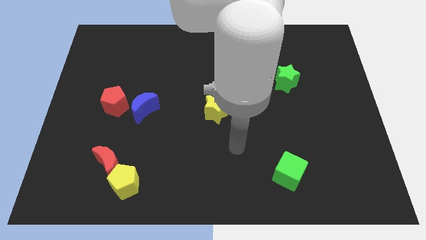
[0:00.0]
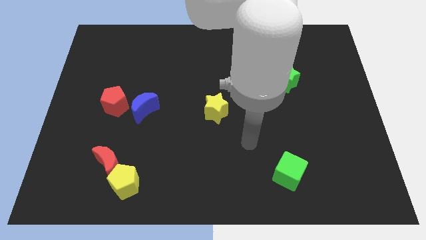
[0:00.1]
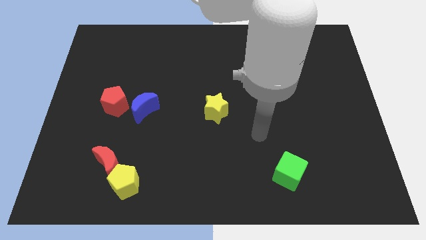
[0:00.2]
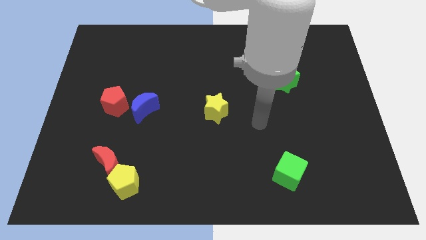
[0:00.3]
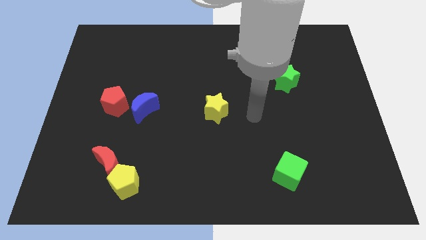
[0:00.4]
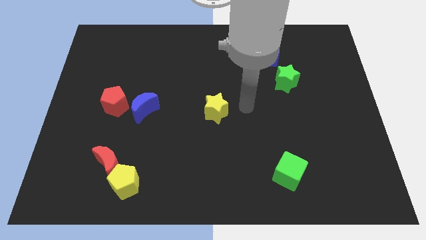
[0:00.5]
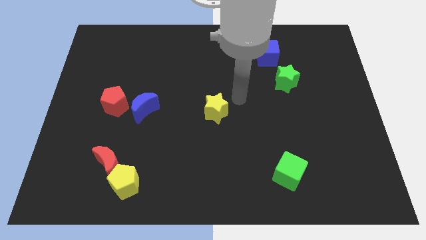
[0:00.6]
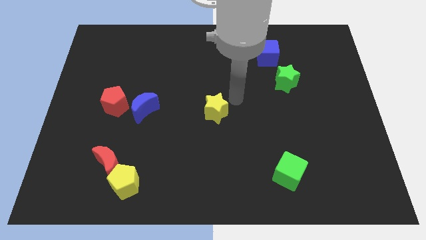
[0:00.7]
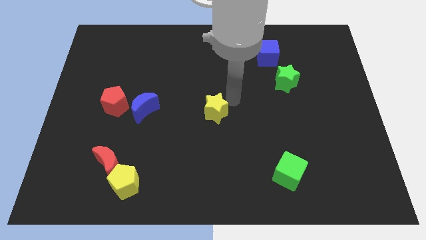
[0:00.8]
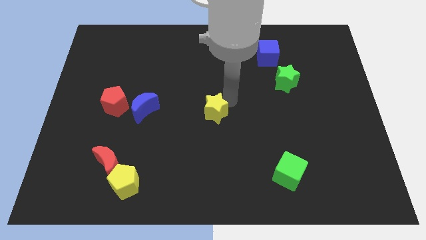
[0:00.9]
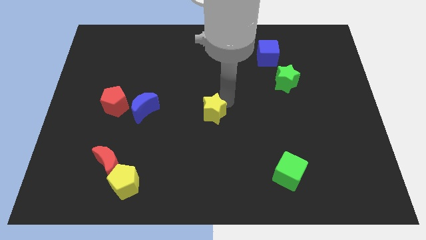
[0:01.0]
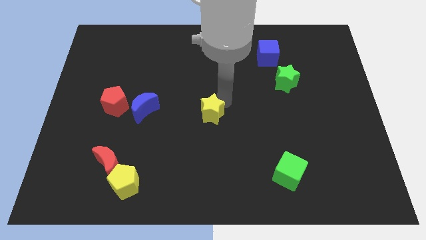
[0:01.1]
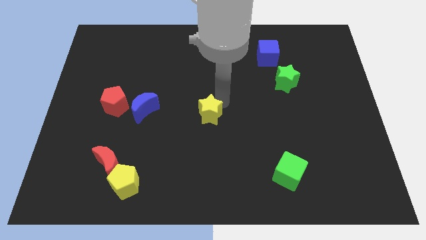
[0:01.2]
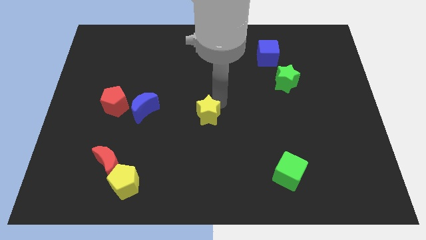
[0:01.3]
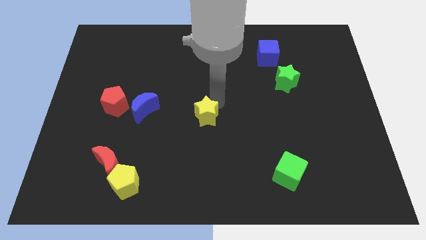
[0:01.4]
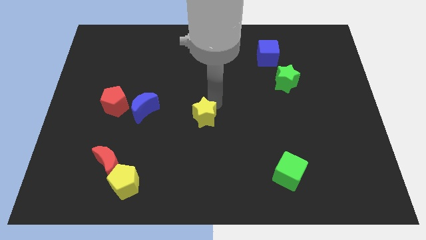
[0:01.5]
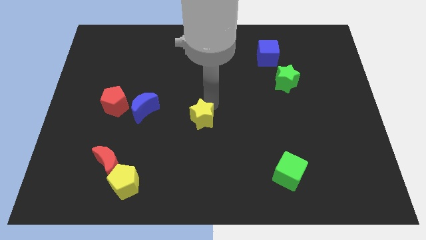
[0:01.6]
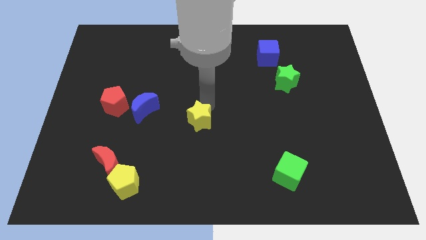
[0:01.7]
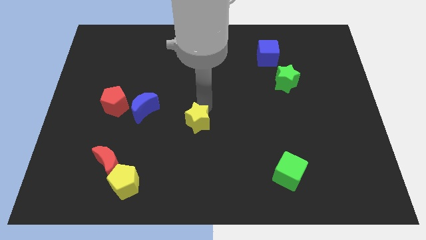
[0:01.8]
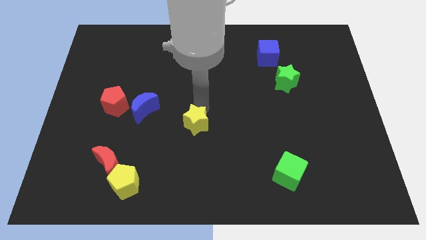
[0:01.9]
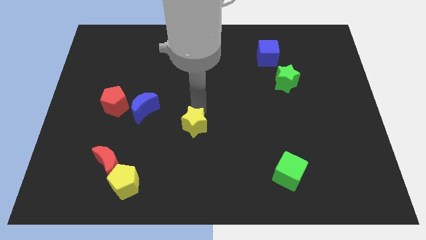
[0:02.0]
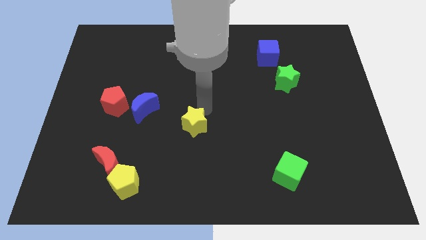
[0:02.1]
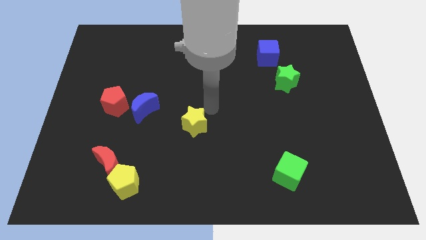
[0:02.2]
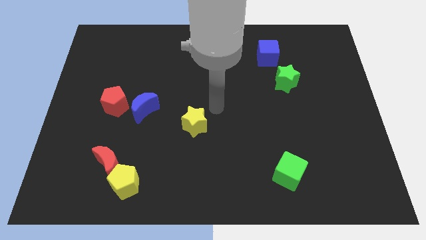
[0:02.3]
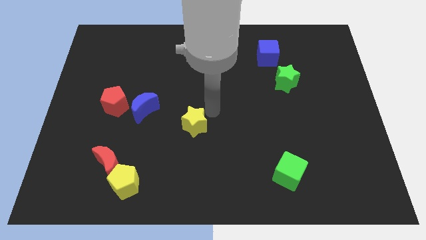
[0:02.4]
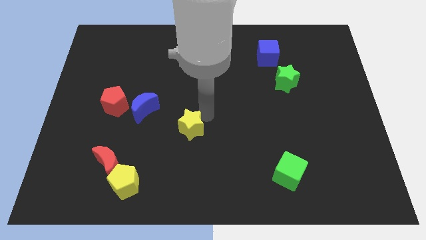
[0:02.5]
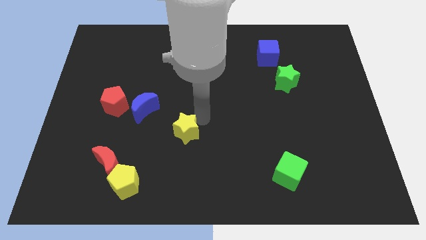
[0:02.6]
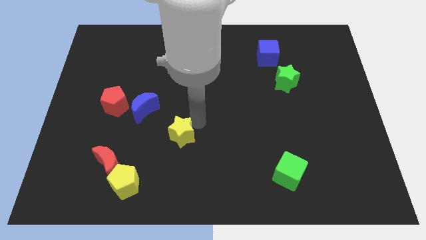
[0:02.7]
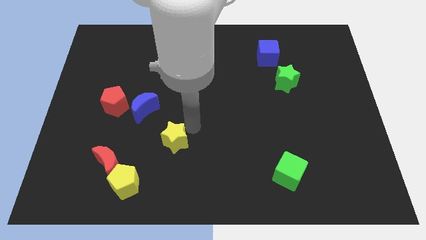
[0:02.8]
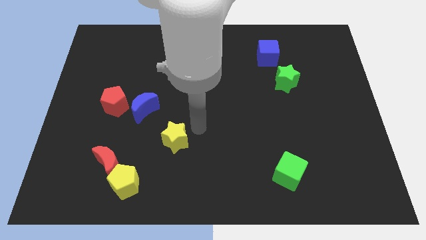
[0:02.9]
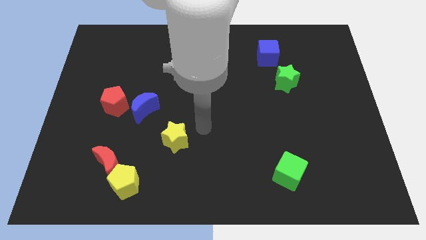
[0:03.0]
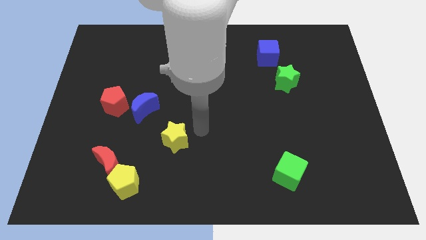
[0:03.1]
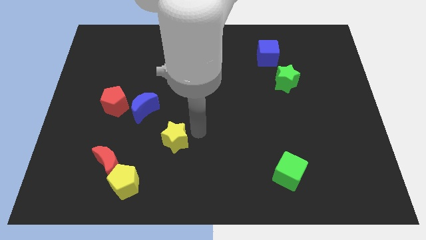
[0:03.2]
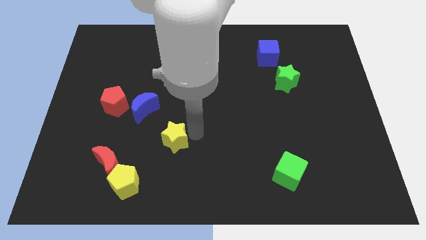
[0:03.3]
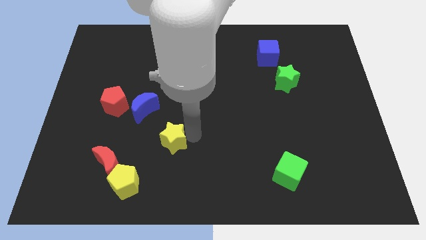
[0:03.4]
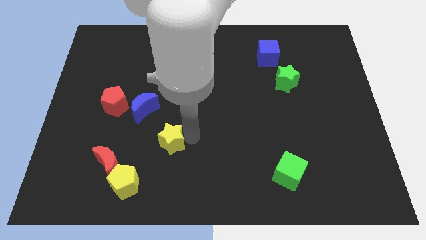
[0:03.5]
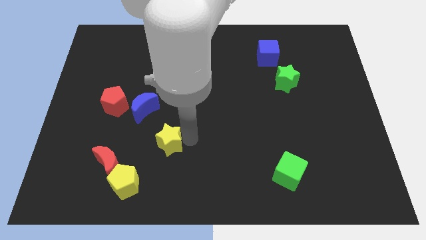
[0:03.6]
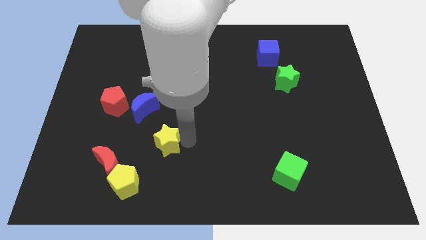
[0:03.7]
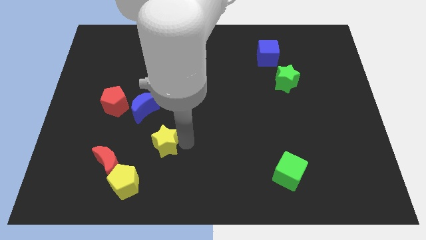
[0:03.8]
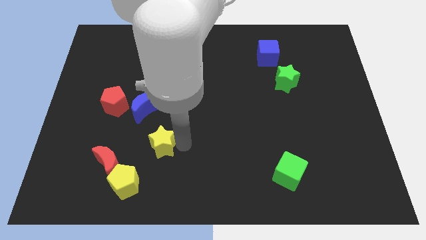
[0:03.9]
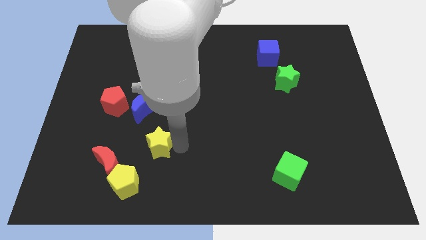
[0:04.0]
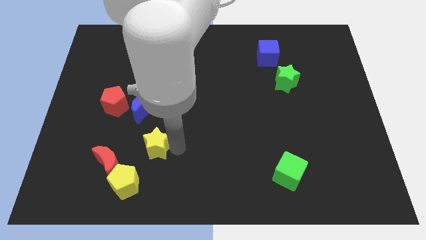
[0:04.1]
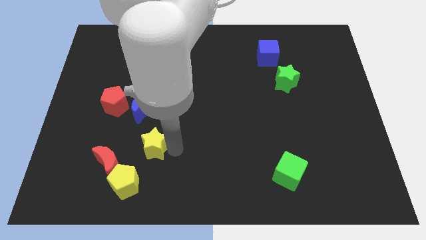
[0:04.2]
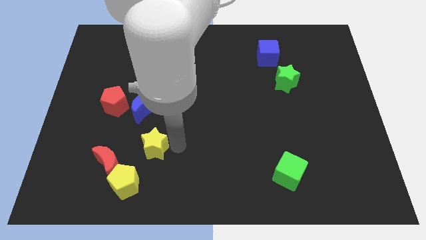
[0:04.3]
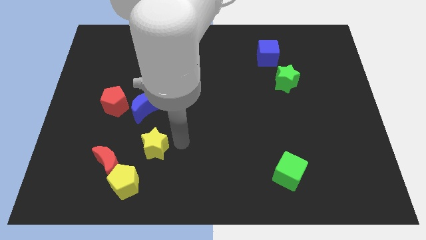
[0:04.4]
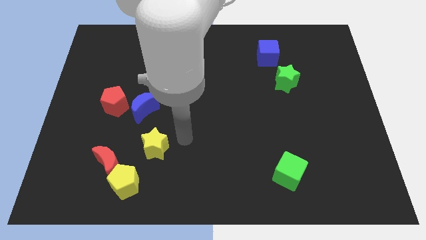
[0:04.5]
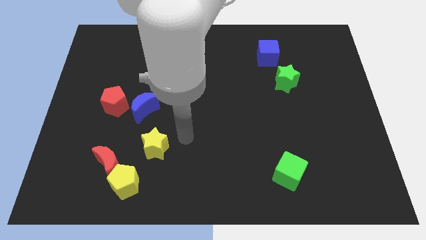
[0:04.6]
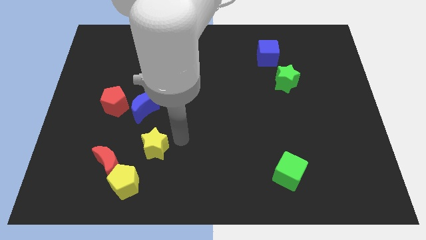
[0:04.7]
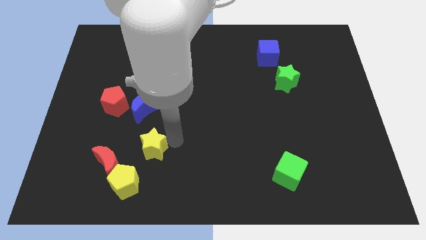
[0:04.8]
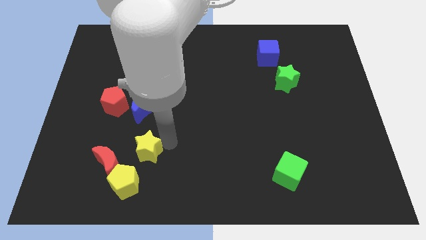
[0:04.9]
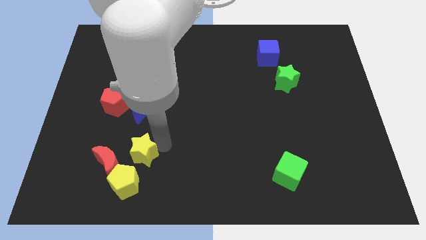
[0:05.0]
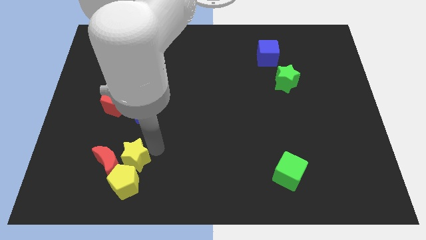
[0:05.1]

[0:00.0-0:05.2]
move the yellow star close to the red moon

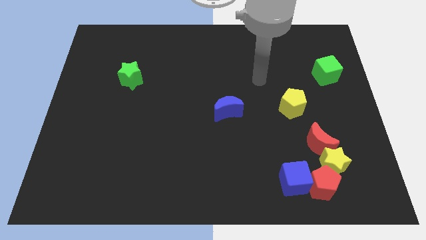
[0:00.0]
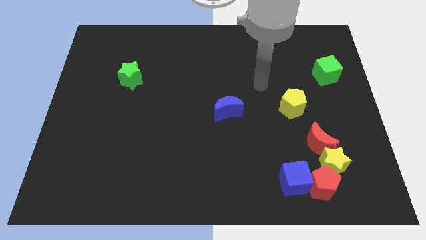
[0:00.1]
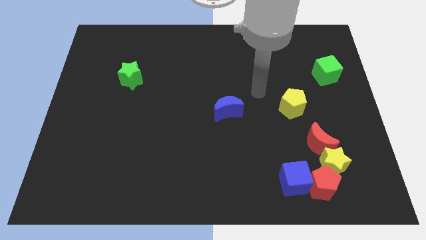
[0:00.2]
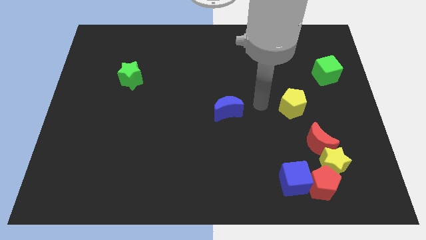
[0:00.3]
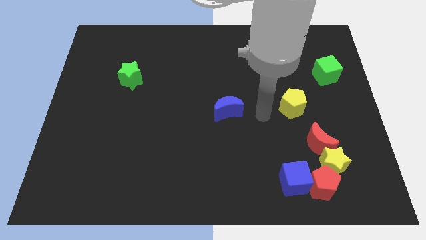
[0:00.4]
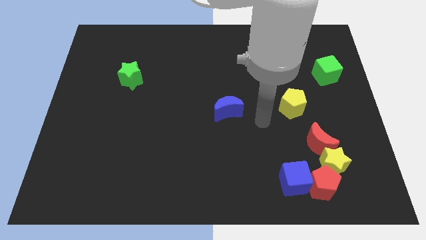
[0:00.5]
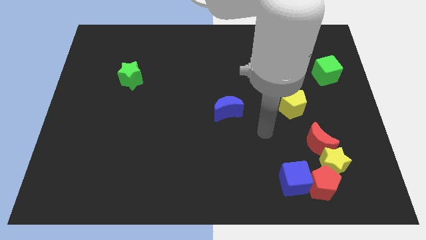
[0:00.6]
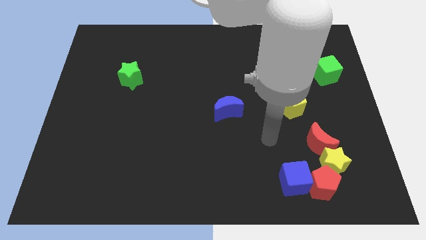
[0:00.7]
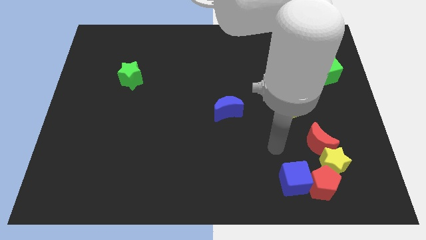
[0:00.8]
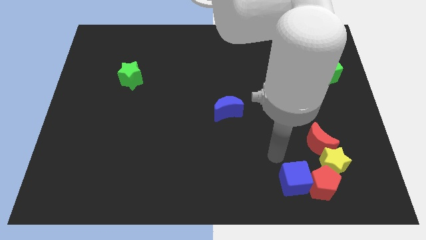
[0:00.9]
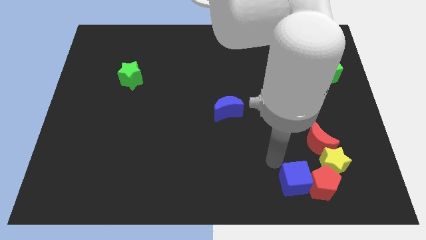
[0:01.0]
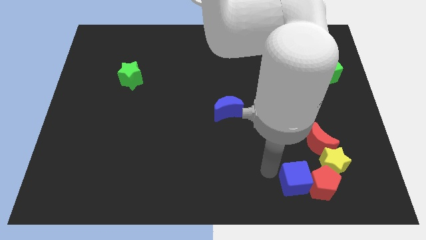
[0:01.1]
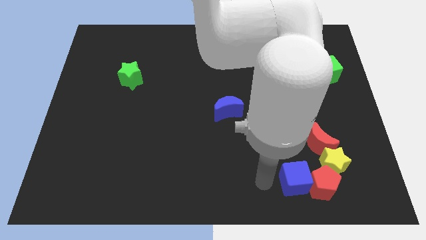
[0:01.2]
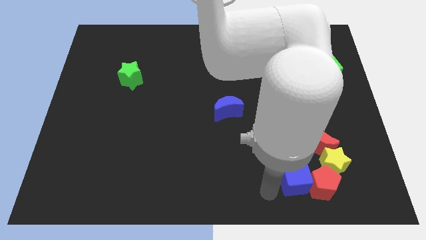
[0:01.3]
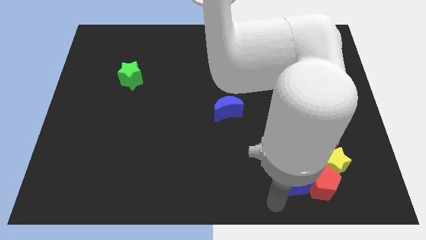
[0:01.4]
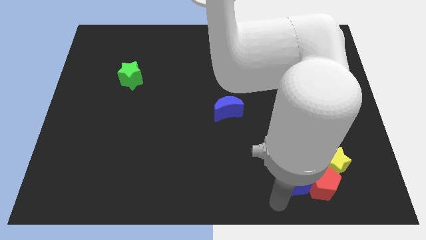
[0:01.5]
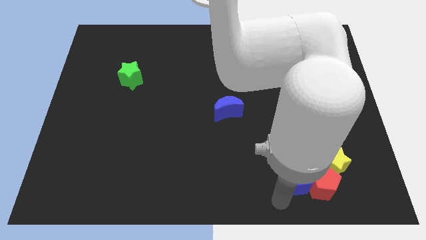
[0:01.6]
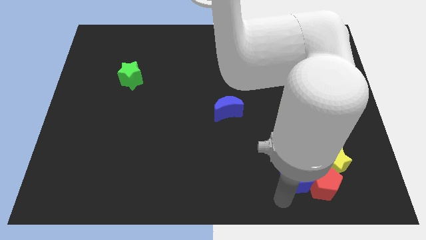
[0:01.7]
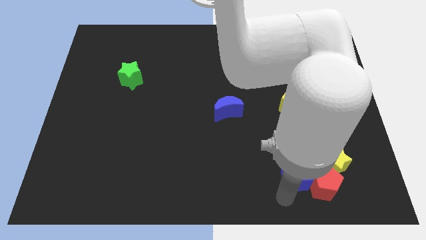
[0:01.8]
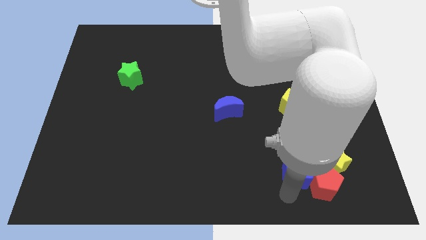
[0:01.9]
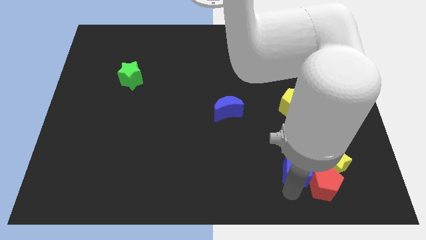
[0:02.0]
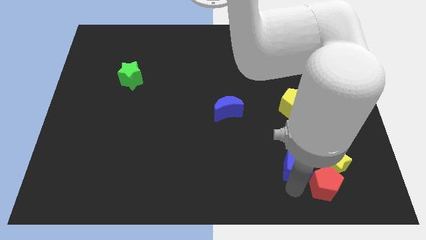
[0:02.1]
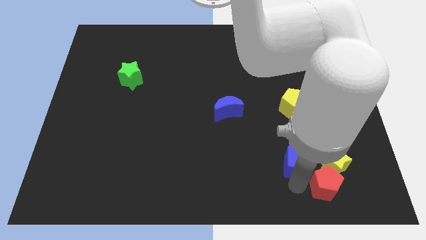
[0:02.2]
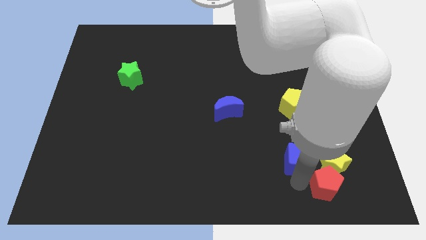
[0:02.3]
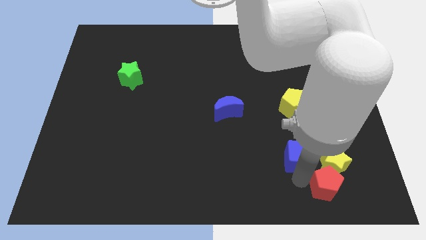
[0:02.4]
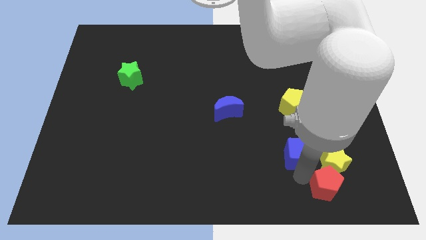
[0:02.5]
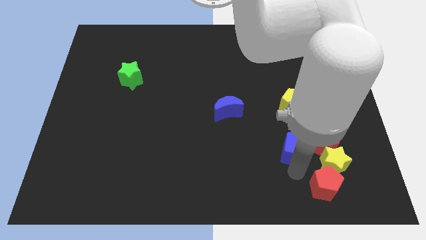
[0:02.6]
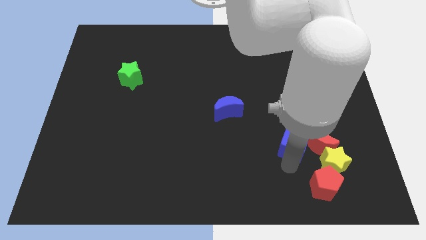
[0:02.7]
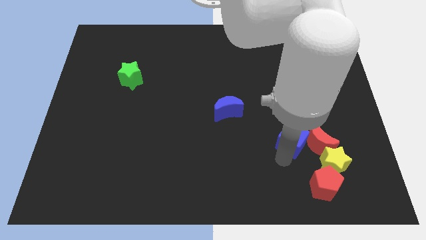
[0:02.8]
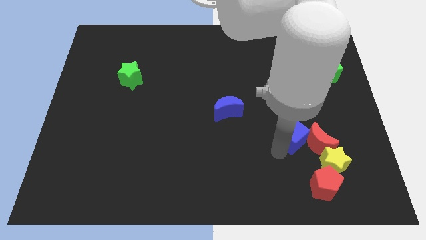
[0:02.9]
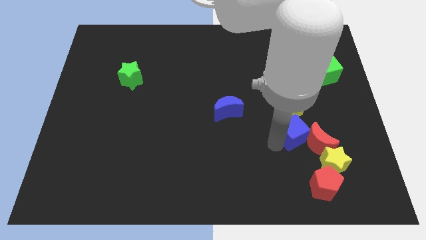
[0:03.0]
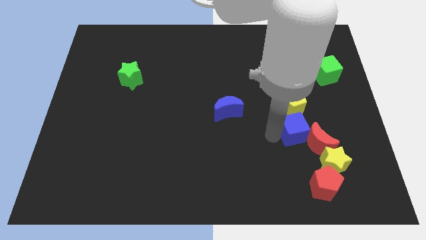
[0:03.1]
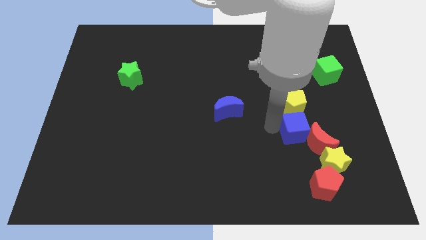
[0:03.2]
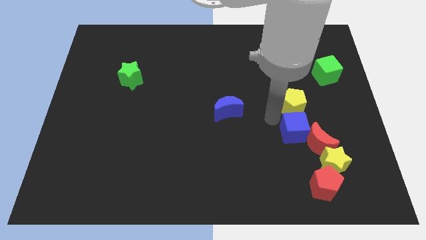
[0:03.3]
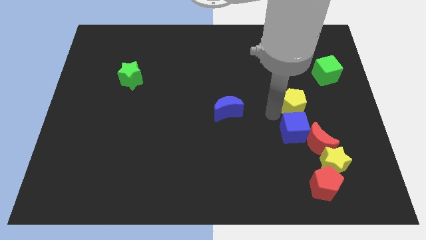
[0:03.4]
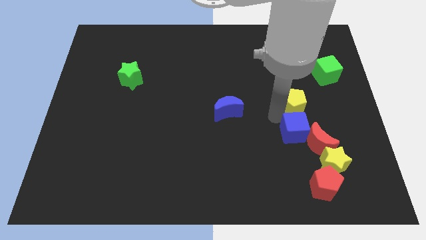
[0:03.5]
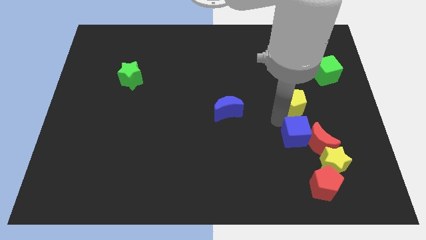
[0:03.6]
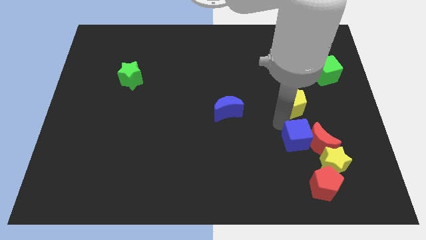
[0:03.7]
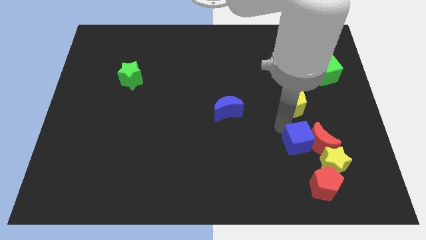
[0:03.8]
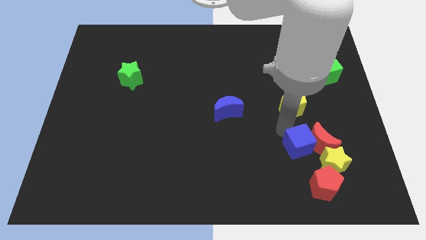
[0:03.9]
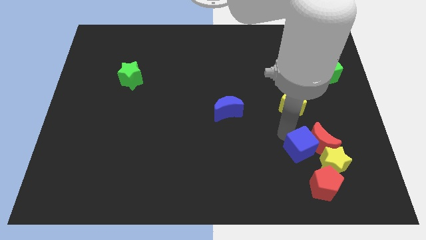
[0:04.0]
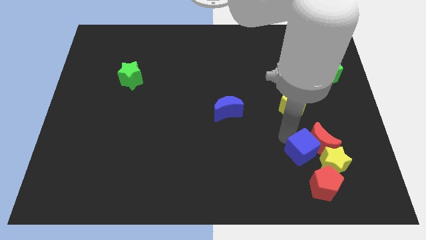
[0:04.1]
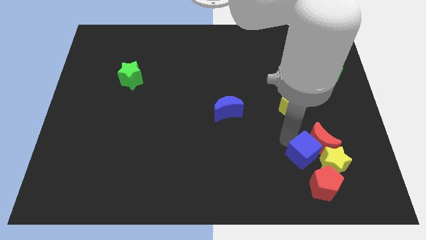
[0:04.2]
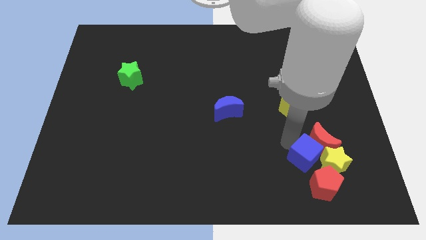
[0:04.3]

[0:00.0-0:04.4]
push the blue cube close to the yellow star
